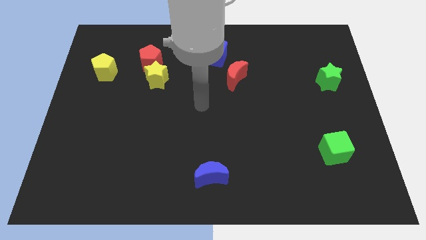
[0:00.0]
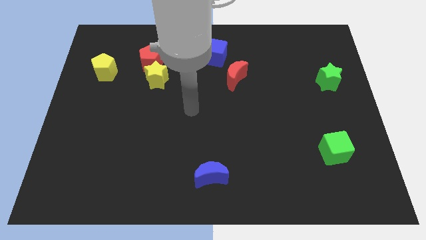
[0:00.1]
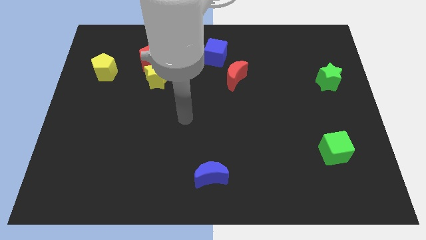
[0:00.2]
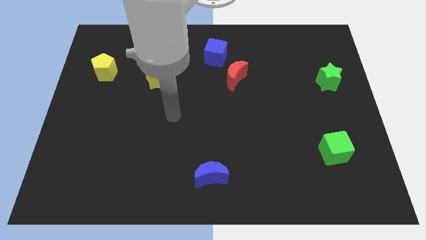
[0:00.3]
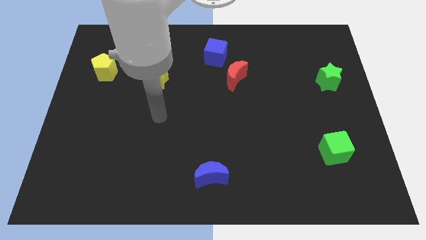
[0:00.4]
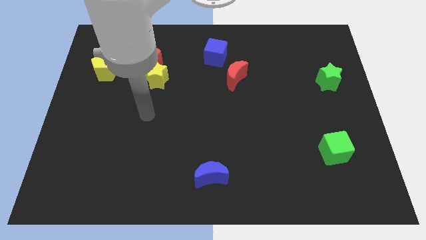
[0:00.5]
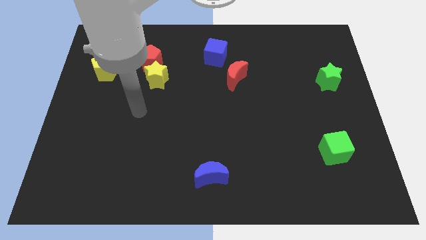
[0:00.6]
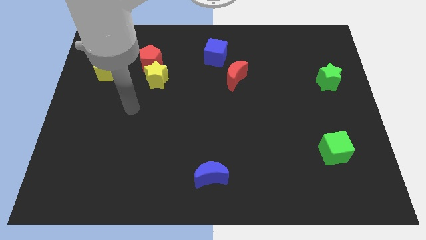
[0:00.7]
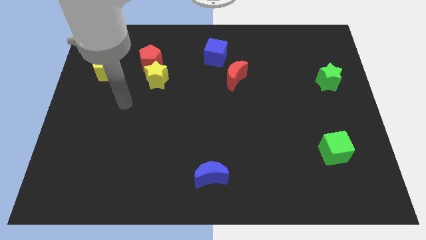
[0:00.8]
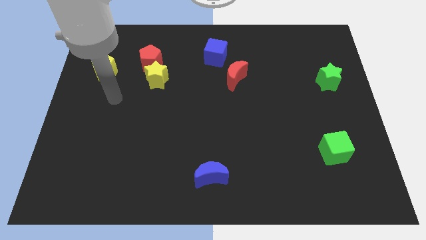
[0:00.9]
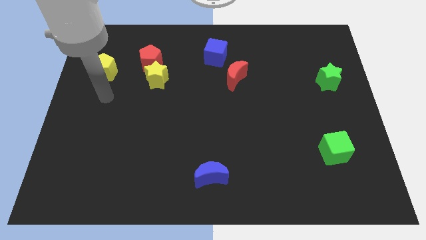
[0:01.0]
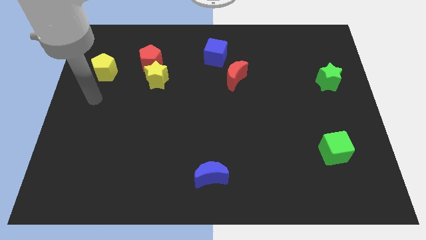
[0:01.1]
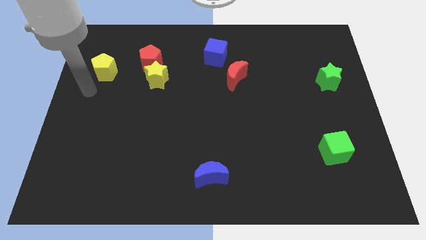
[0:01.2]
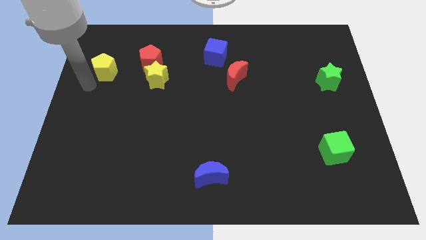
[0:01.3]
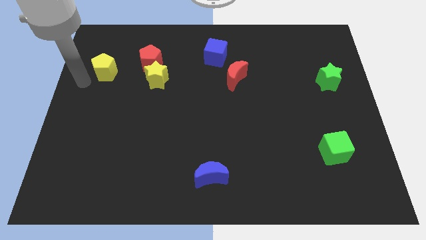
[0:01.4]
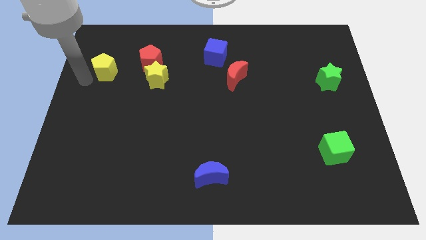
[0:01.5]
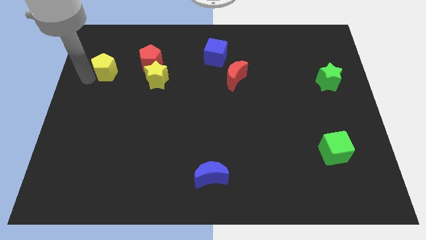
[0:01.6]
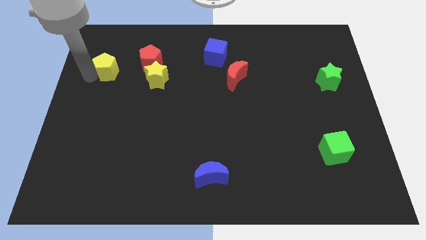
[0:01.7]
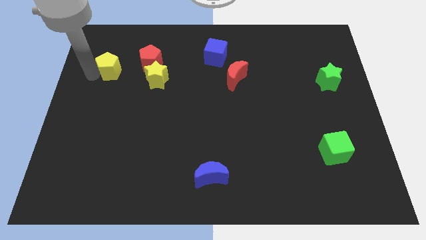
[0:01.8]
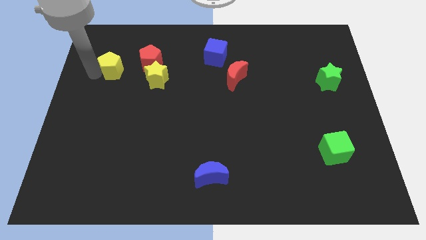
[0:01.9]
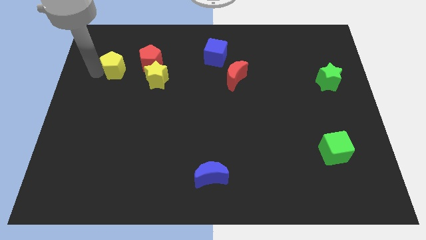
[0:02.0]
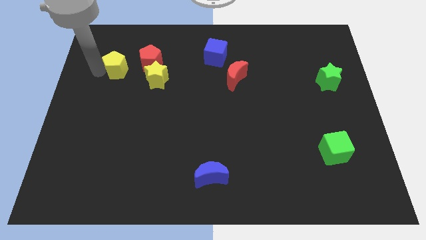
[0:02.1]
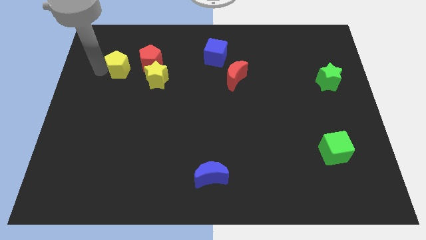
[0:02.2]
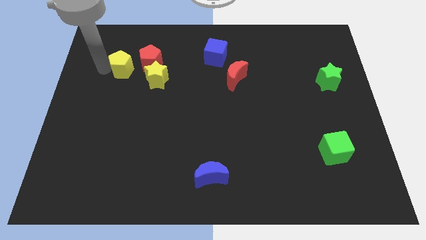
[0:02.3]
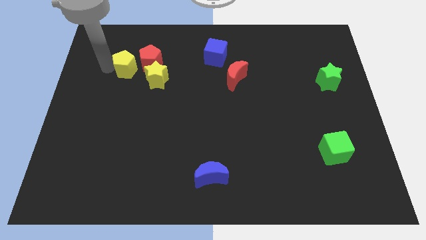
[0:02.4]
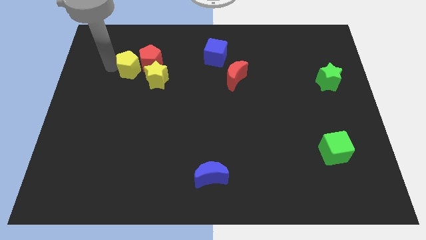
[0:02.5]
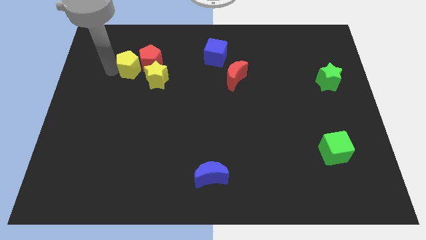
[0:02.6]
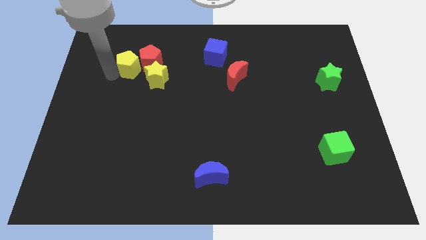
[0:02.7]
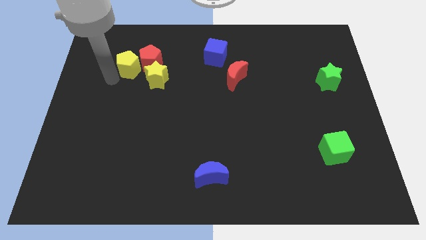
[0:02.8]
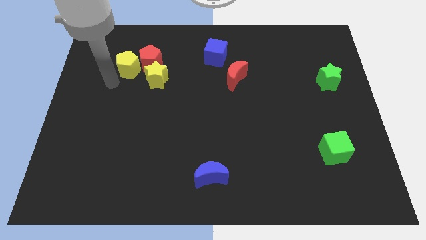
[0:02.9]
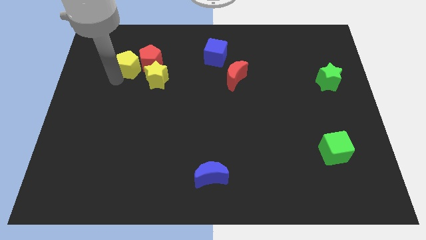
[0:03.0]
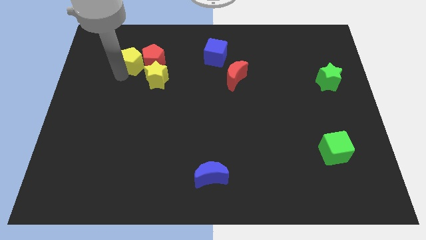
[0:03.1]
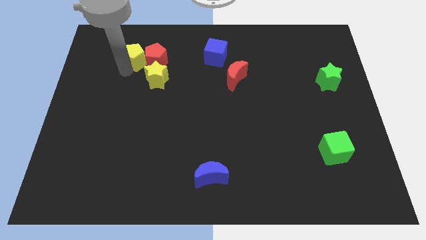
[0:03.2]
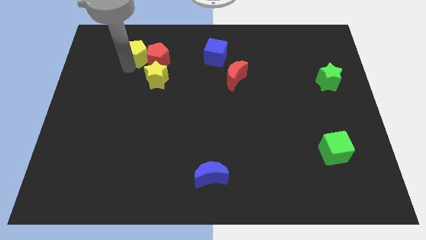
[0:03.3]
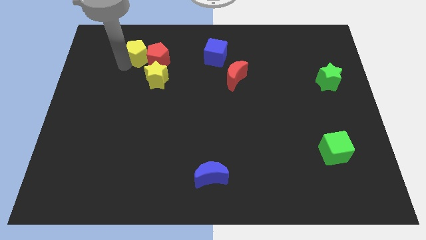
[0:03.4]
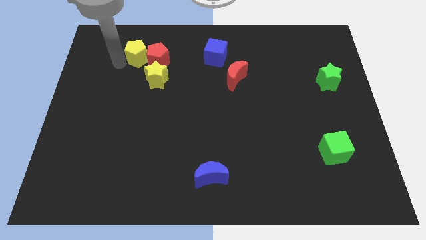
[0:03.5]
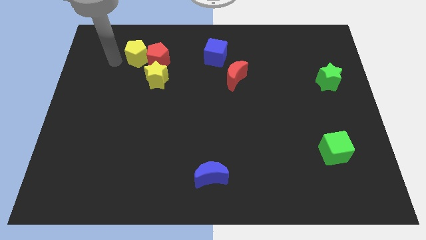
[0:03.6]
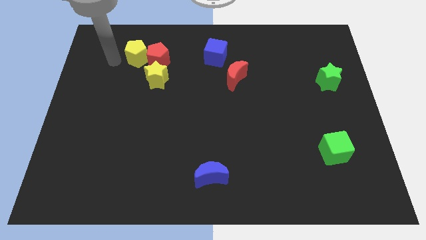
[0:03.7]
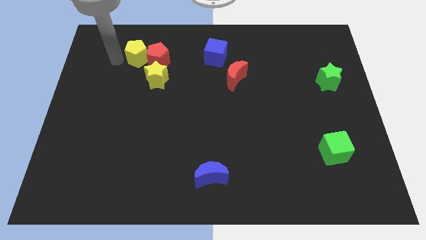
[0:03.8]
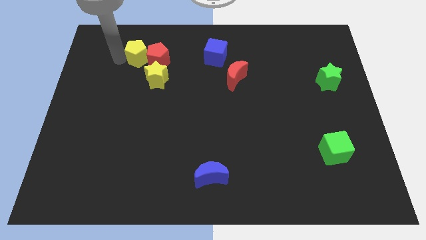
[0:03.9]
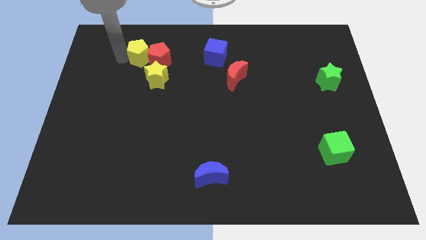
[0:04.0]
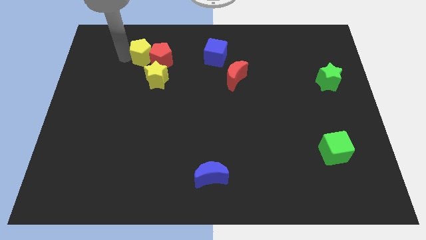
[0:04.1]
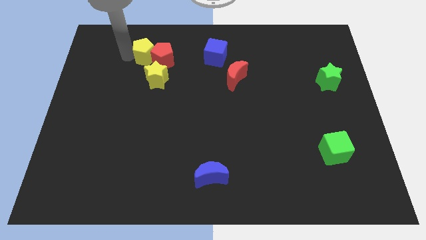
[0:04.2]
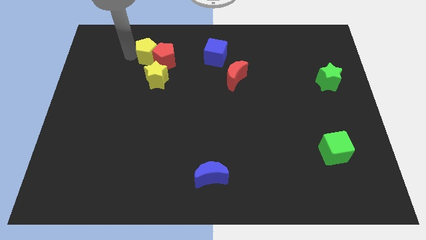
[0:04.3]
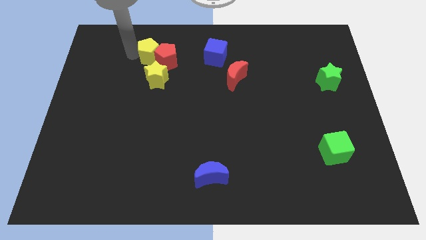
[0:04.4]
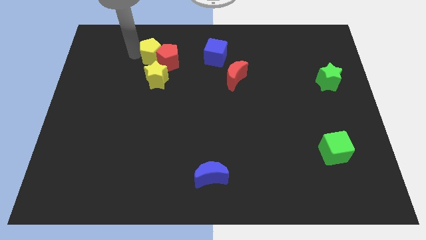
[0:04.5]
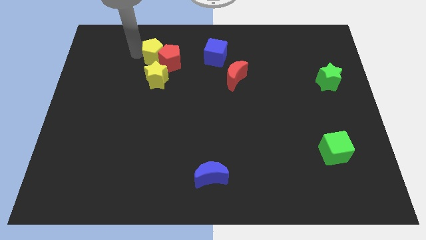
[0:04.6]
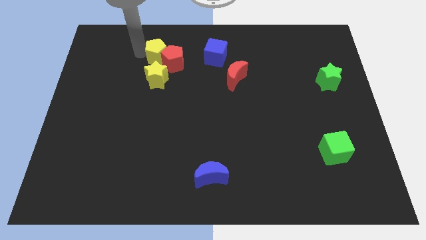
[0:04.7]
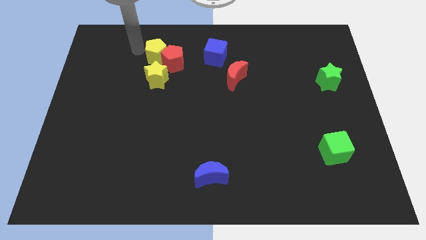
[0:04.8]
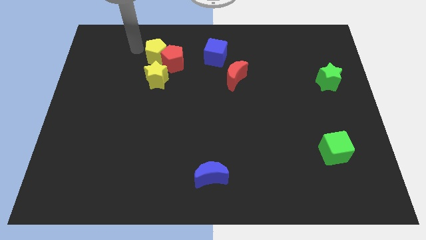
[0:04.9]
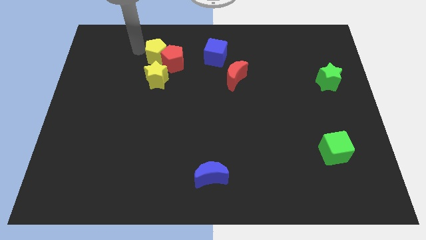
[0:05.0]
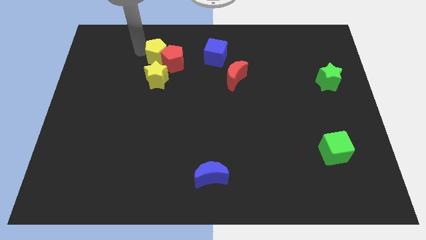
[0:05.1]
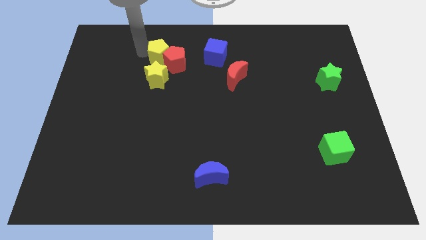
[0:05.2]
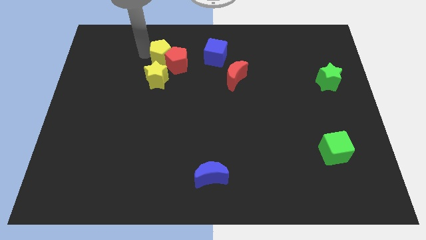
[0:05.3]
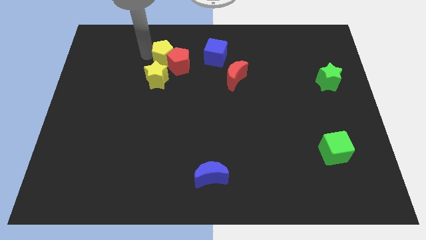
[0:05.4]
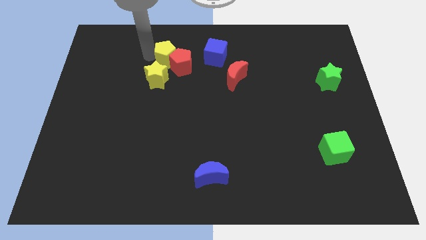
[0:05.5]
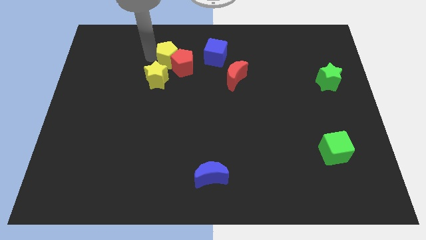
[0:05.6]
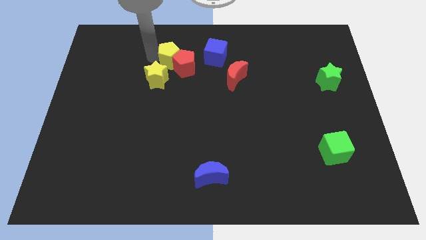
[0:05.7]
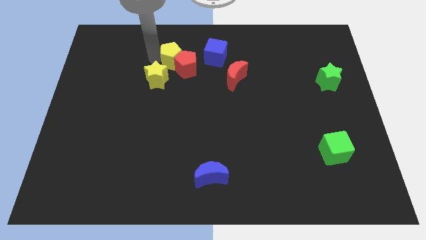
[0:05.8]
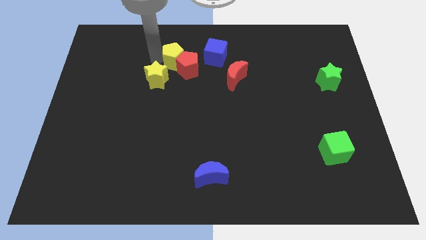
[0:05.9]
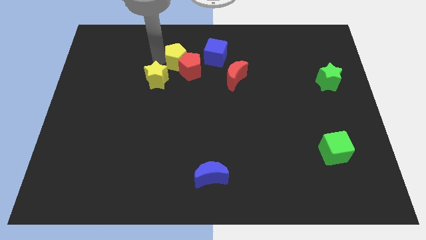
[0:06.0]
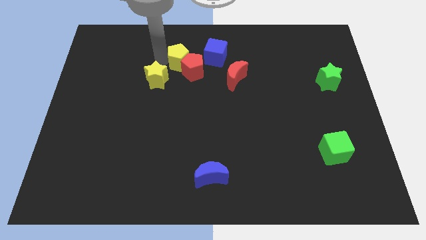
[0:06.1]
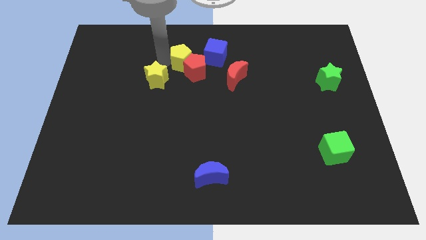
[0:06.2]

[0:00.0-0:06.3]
push the yellow pentagon to the bottom left side of the blue cube
